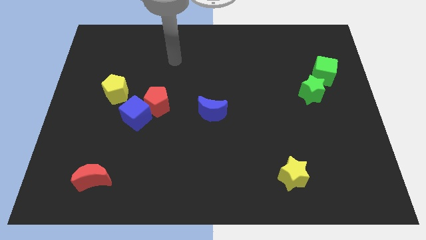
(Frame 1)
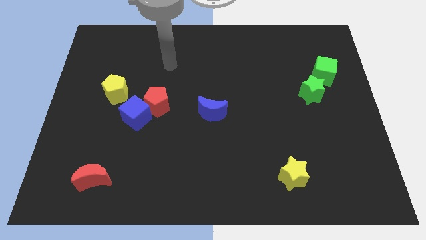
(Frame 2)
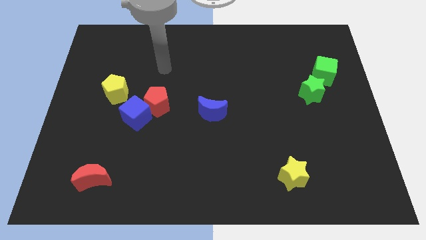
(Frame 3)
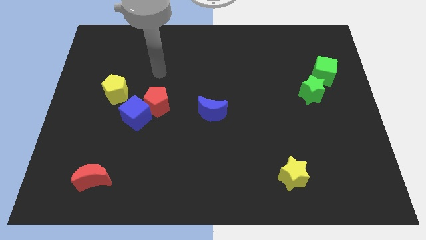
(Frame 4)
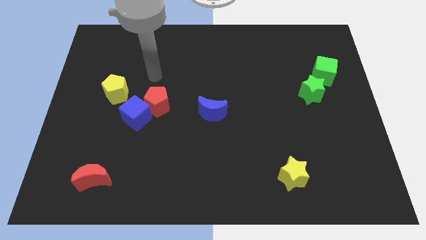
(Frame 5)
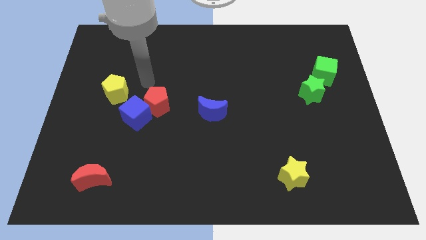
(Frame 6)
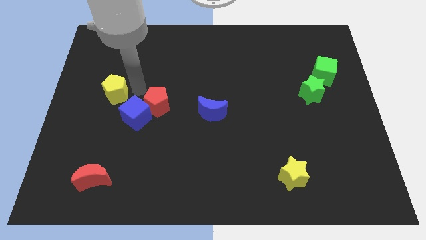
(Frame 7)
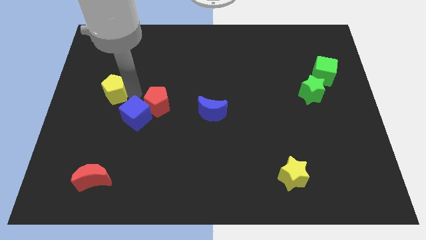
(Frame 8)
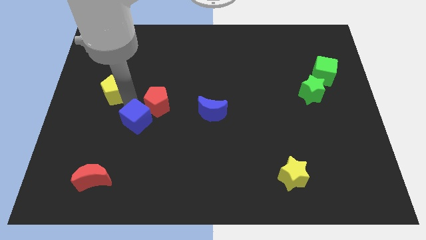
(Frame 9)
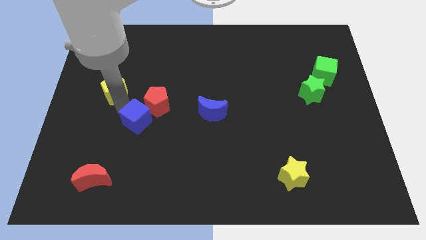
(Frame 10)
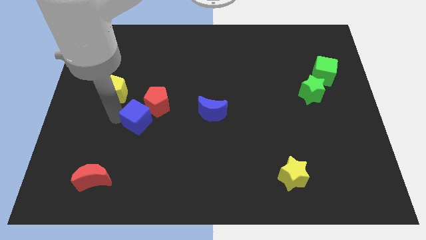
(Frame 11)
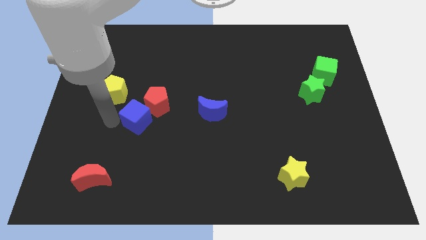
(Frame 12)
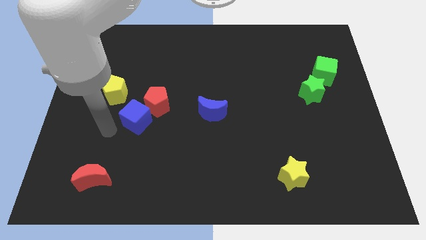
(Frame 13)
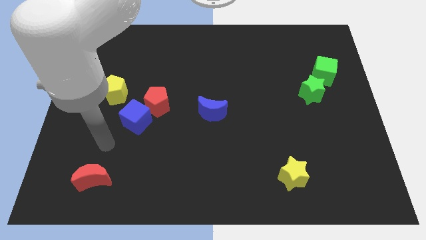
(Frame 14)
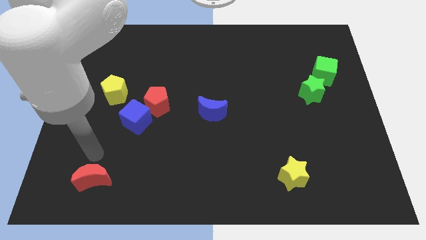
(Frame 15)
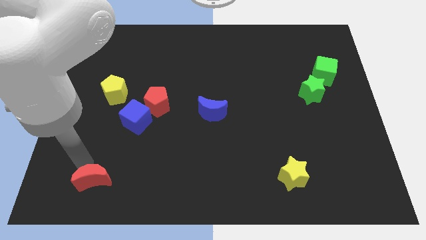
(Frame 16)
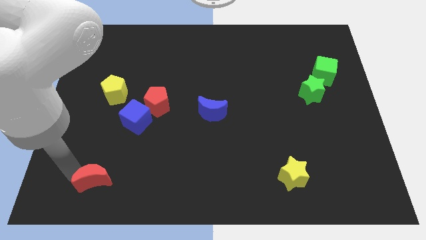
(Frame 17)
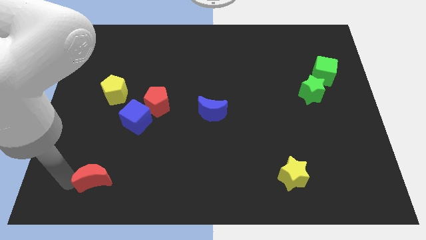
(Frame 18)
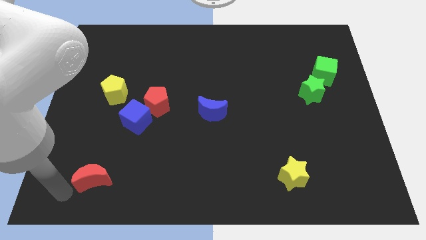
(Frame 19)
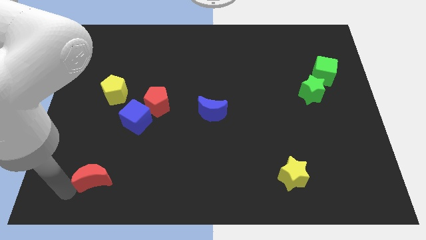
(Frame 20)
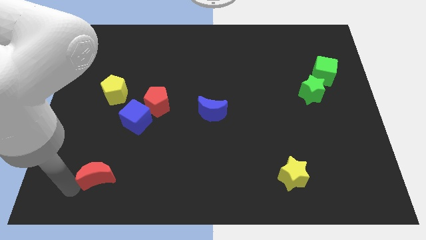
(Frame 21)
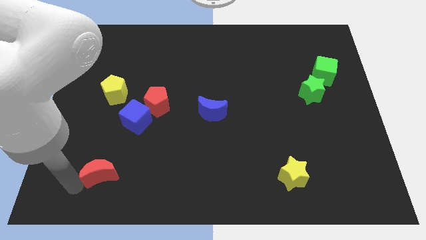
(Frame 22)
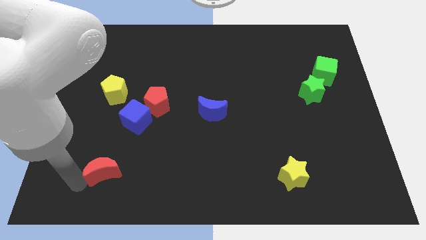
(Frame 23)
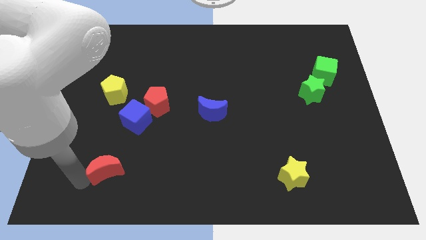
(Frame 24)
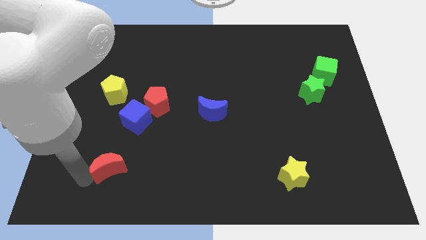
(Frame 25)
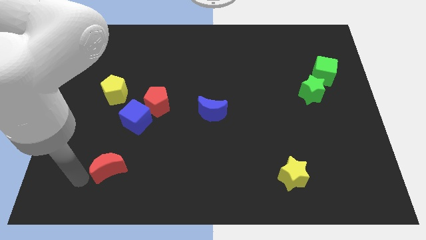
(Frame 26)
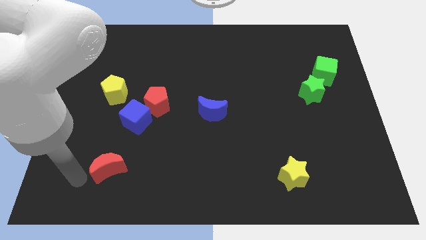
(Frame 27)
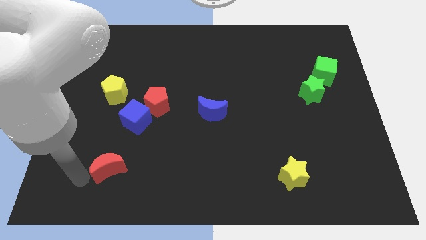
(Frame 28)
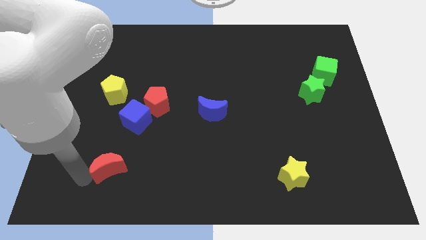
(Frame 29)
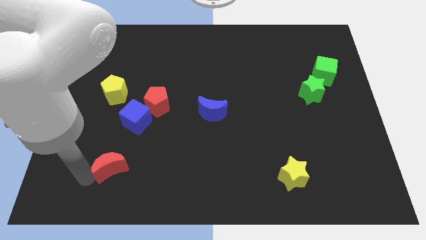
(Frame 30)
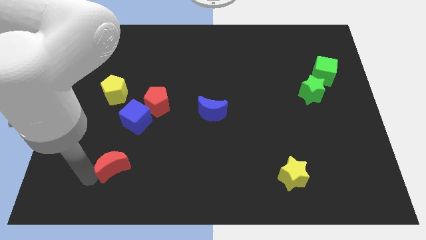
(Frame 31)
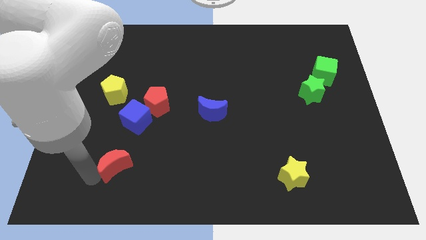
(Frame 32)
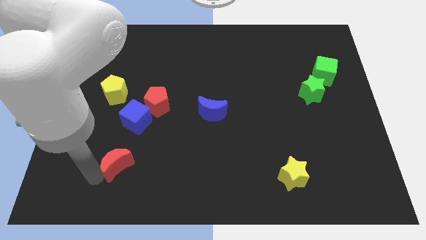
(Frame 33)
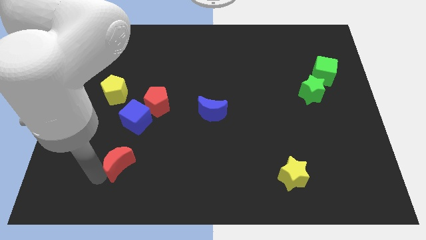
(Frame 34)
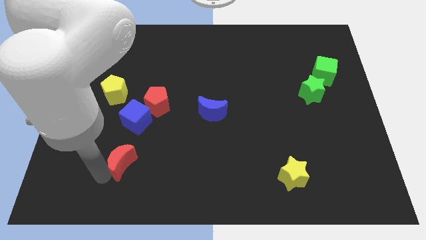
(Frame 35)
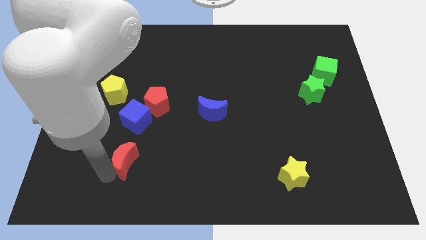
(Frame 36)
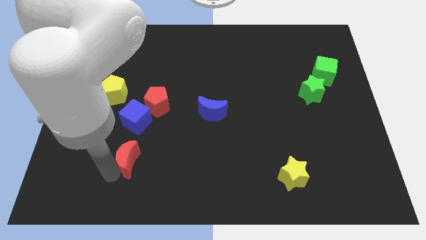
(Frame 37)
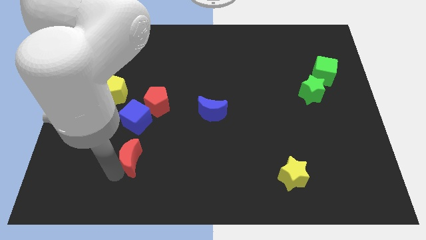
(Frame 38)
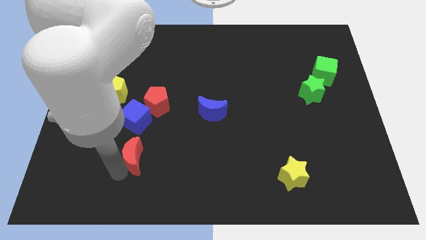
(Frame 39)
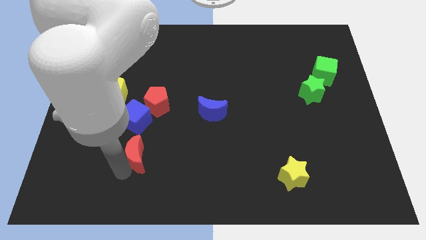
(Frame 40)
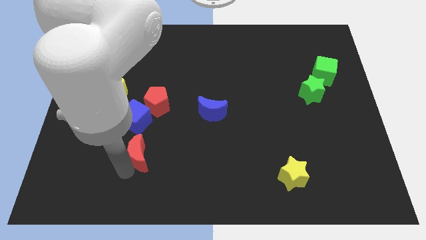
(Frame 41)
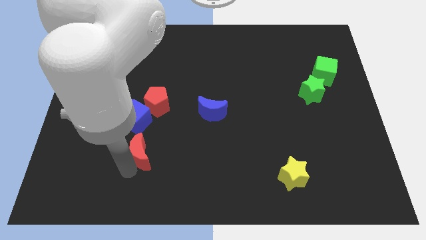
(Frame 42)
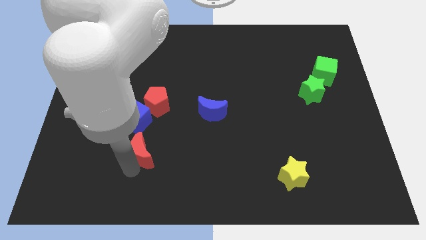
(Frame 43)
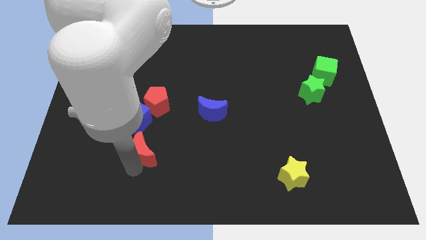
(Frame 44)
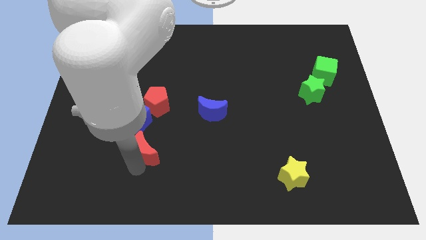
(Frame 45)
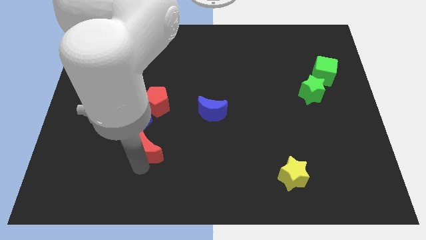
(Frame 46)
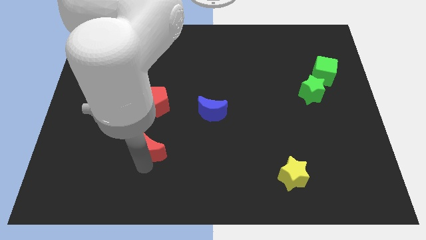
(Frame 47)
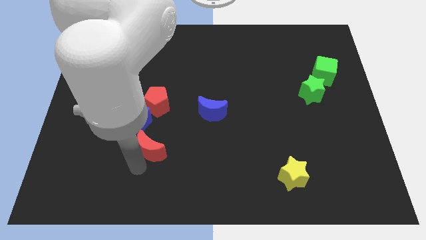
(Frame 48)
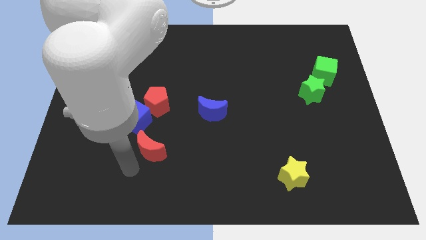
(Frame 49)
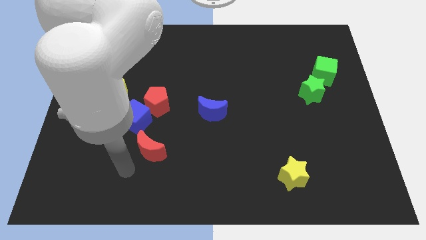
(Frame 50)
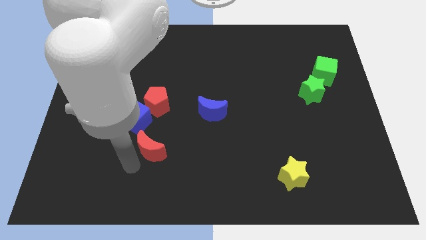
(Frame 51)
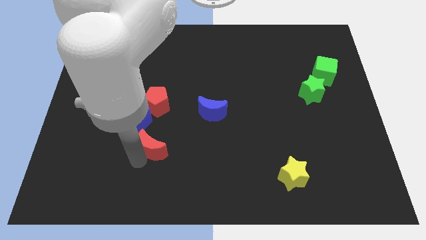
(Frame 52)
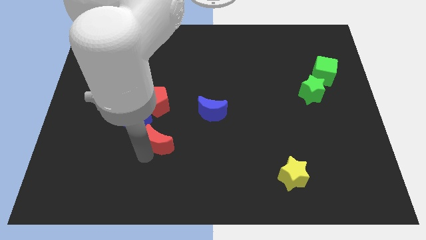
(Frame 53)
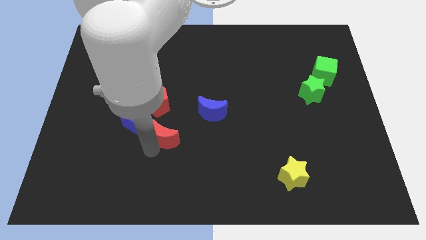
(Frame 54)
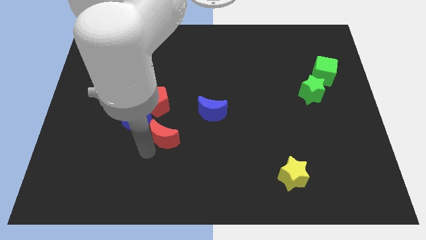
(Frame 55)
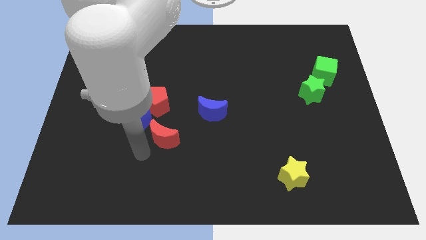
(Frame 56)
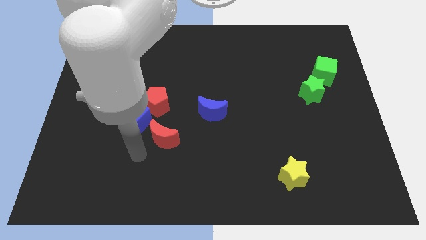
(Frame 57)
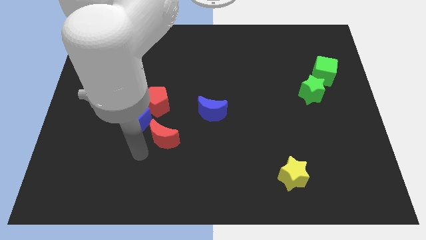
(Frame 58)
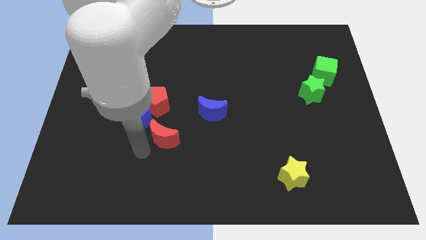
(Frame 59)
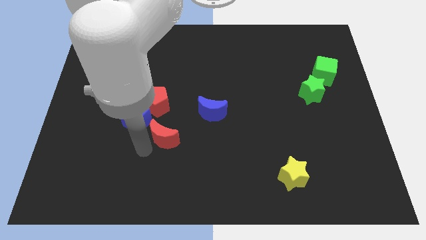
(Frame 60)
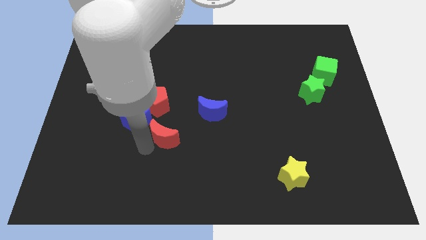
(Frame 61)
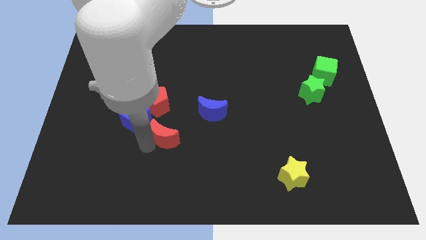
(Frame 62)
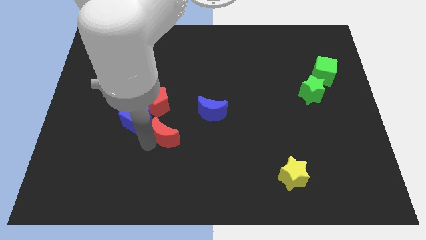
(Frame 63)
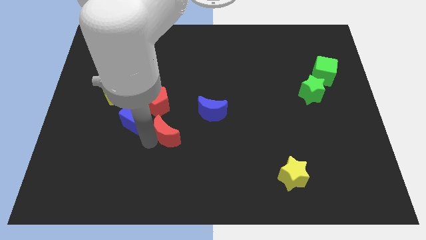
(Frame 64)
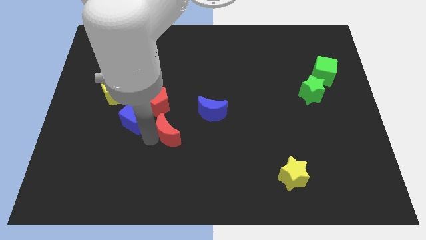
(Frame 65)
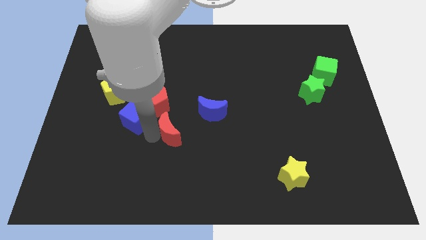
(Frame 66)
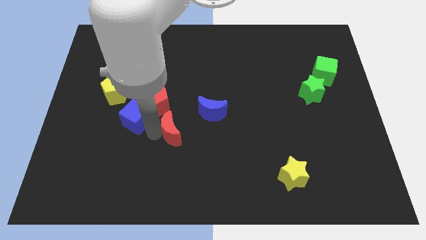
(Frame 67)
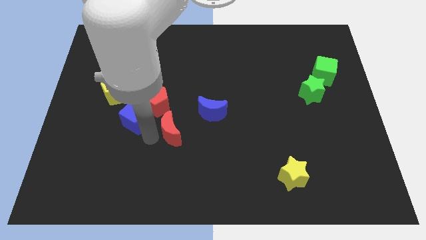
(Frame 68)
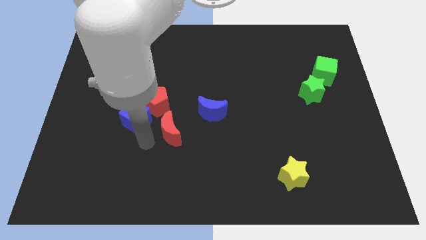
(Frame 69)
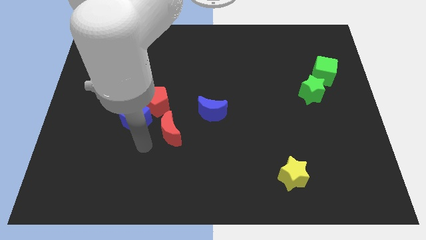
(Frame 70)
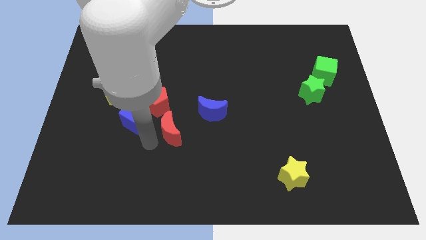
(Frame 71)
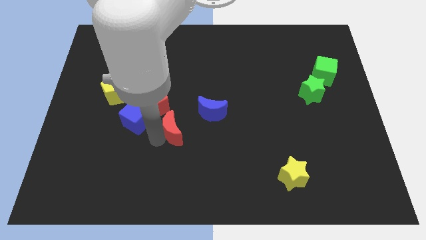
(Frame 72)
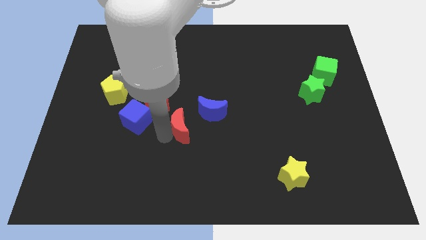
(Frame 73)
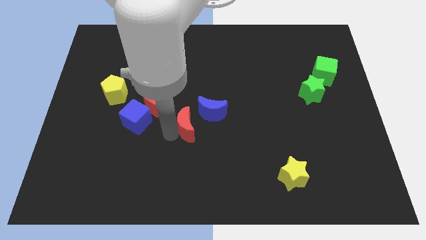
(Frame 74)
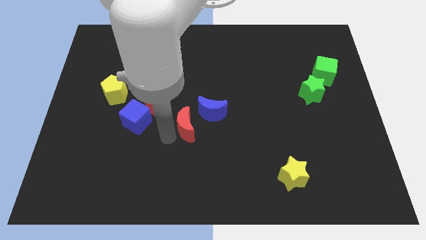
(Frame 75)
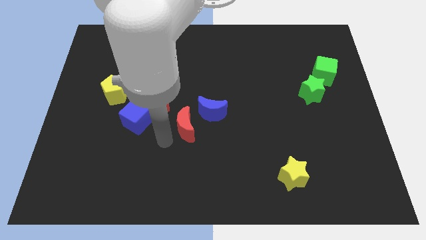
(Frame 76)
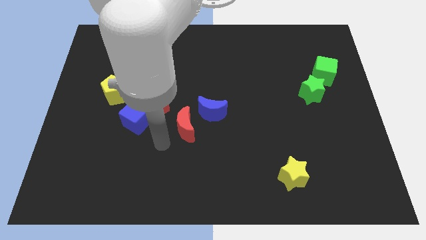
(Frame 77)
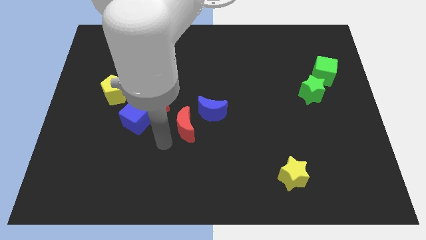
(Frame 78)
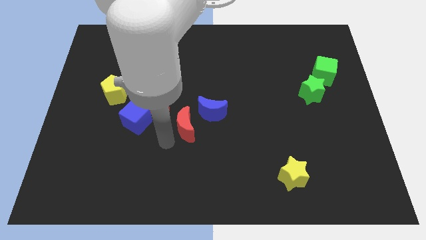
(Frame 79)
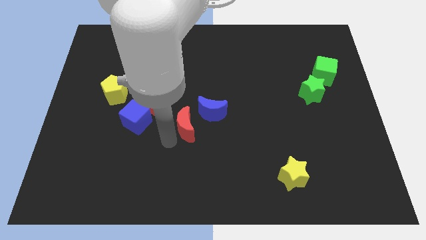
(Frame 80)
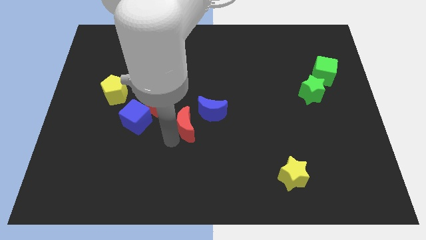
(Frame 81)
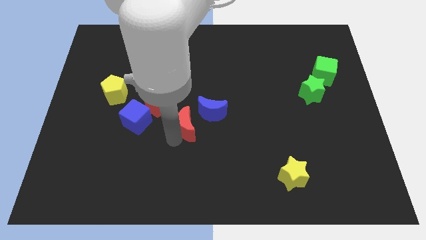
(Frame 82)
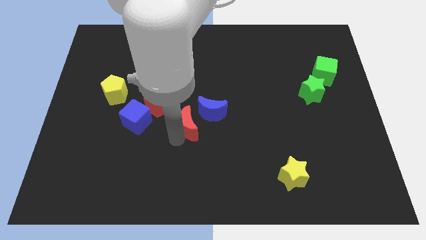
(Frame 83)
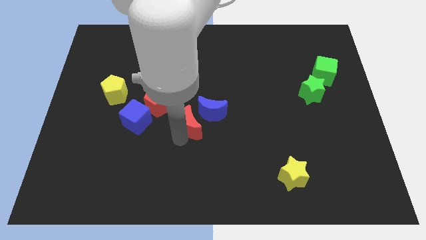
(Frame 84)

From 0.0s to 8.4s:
slide the red moon close to the blue moon
